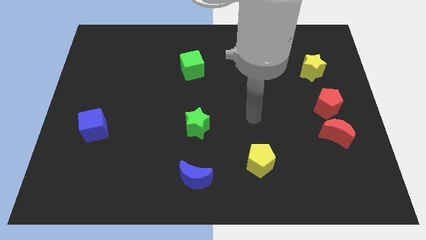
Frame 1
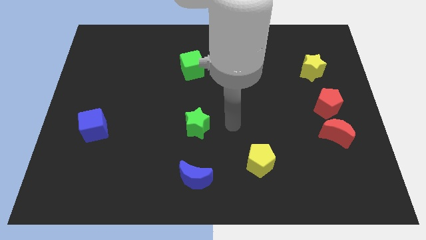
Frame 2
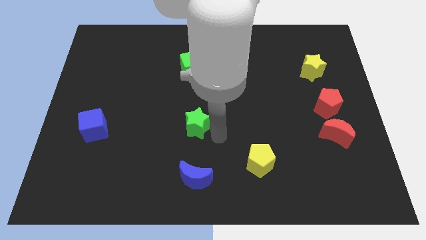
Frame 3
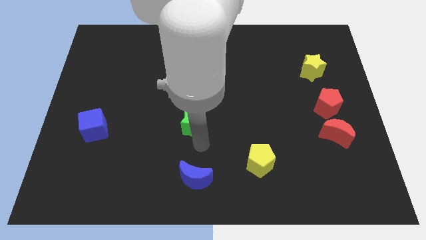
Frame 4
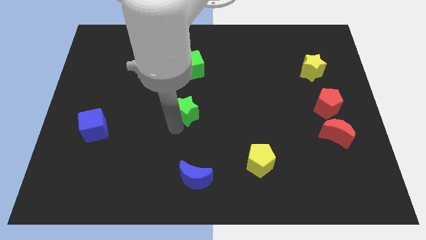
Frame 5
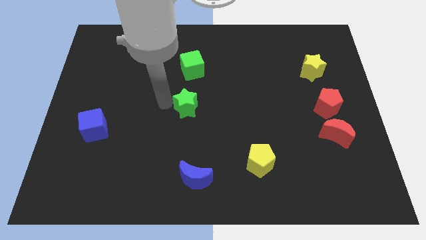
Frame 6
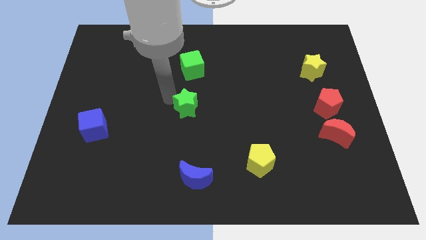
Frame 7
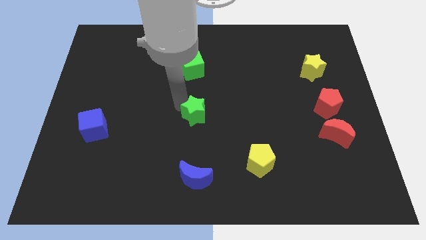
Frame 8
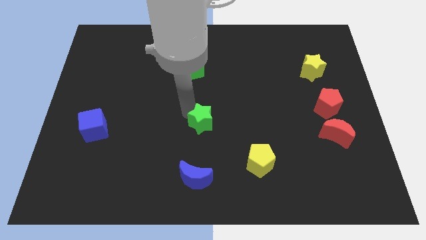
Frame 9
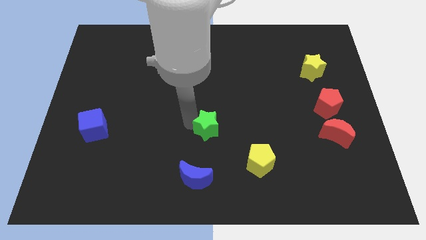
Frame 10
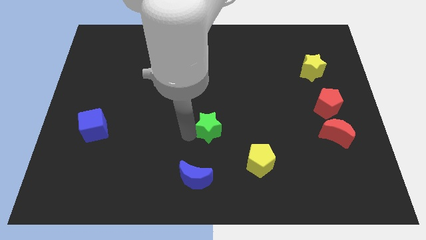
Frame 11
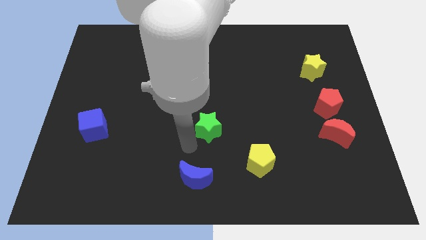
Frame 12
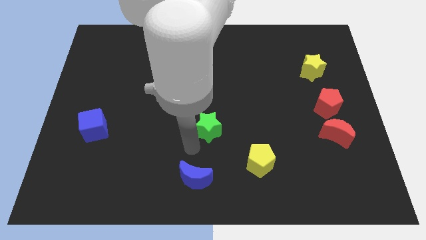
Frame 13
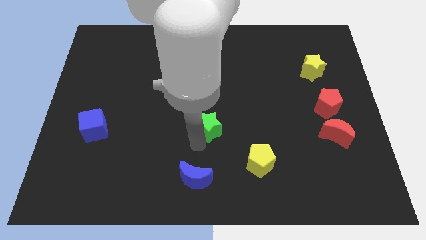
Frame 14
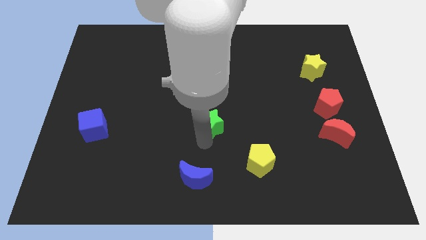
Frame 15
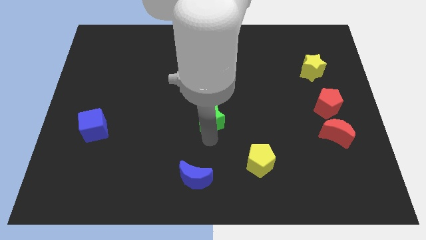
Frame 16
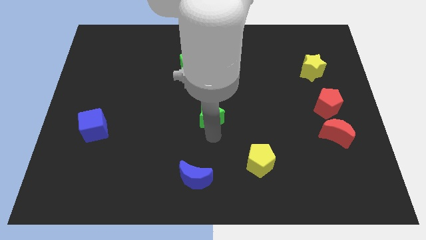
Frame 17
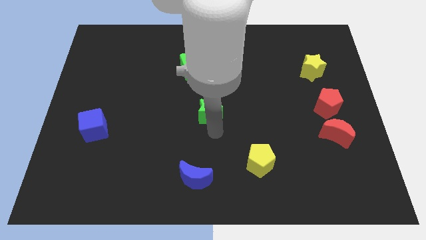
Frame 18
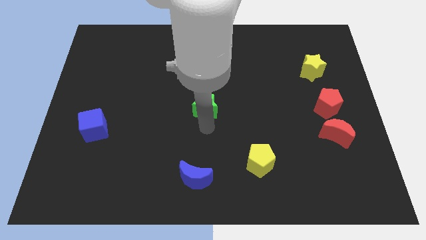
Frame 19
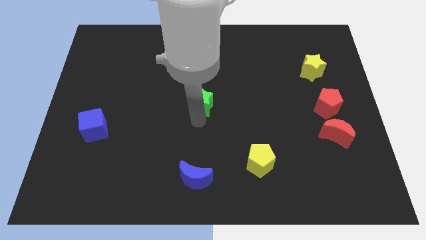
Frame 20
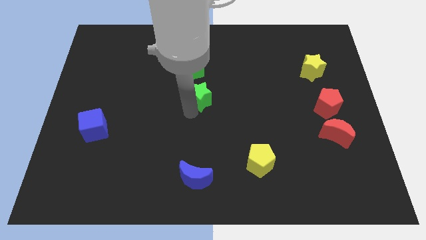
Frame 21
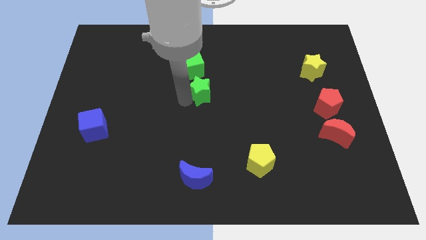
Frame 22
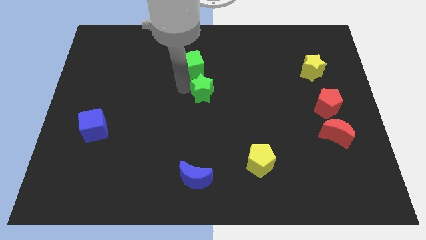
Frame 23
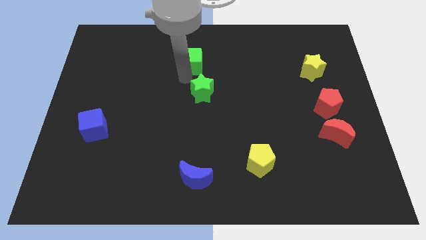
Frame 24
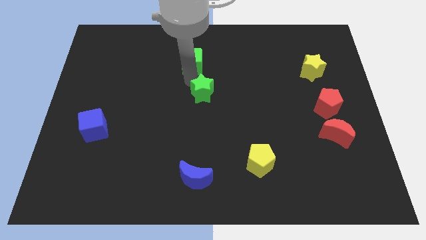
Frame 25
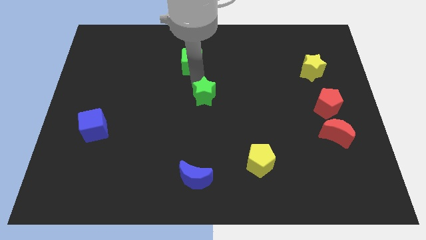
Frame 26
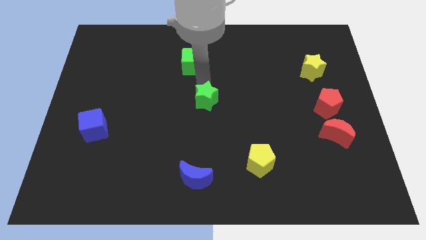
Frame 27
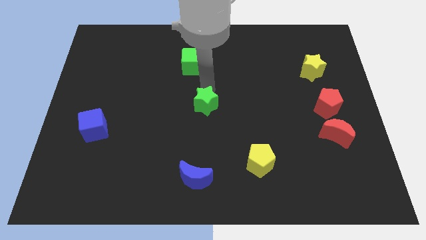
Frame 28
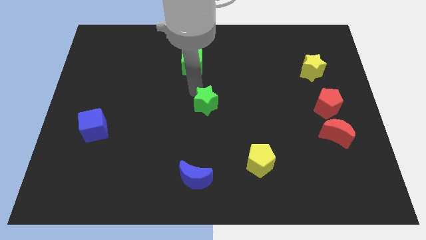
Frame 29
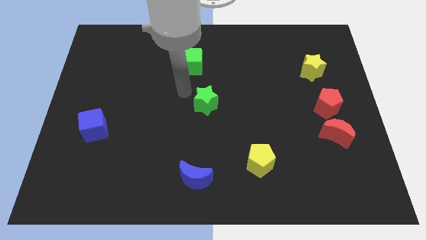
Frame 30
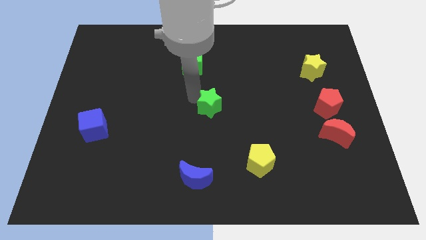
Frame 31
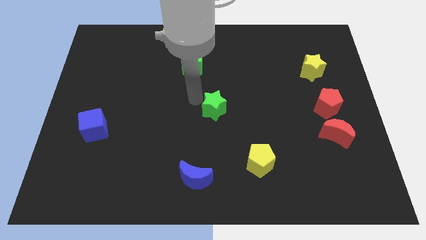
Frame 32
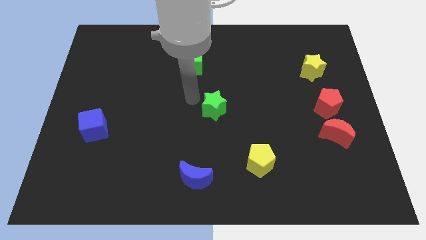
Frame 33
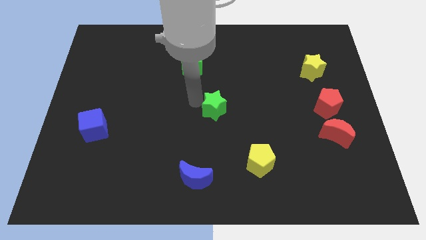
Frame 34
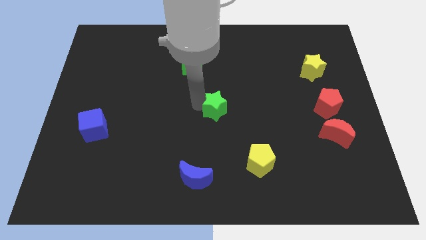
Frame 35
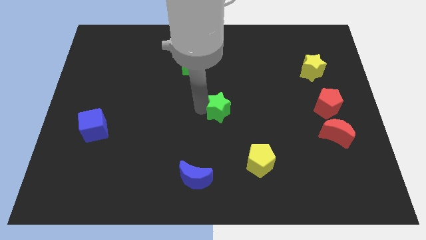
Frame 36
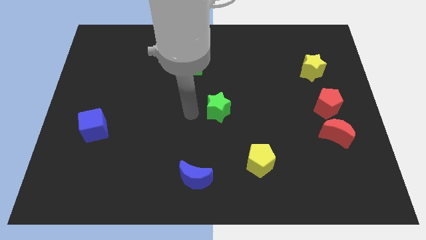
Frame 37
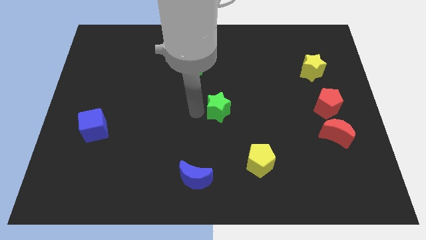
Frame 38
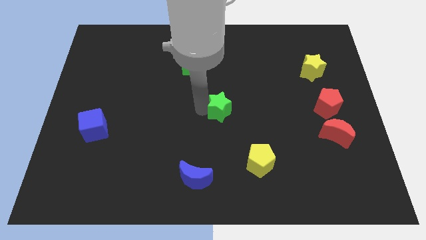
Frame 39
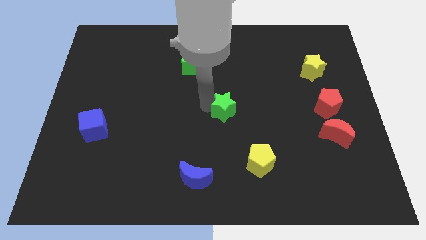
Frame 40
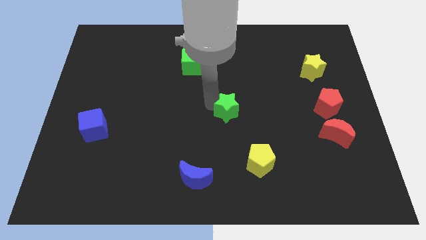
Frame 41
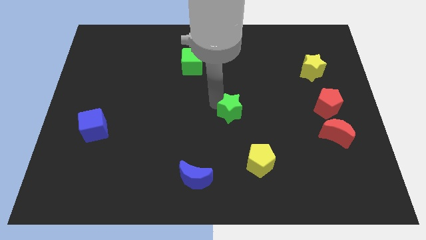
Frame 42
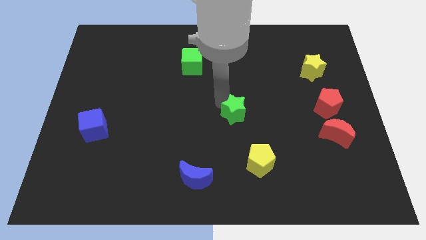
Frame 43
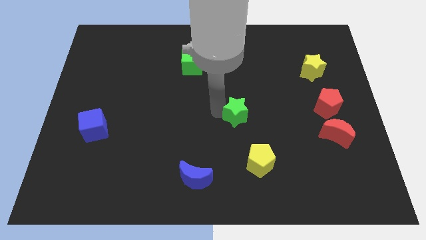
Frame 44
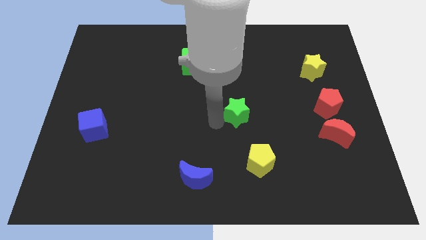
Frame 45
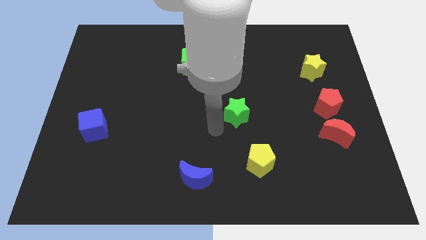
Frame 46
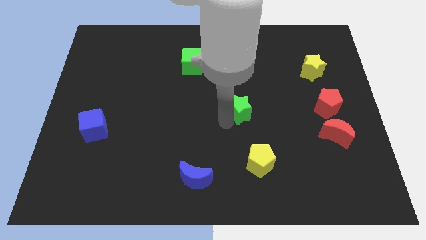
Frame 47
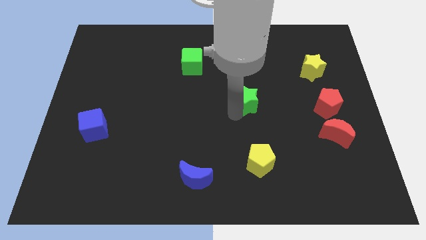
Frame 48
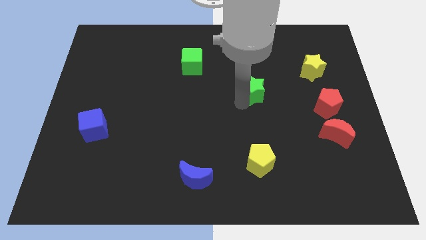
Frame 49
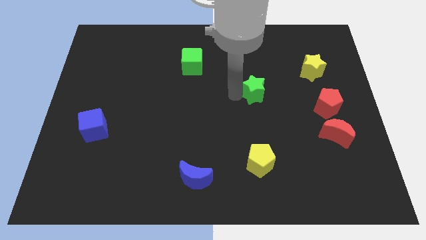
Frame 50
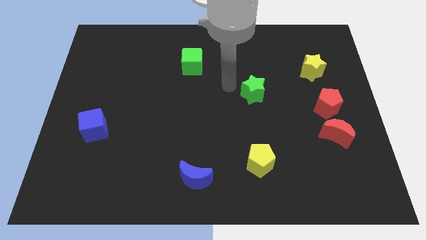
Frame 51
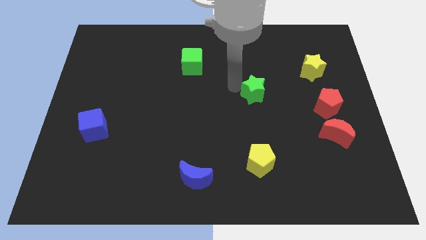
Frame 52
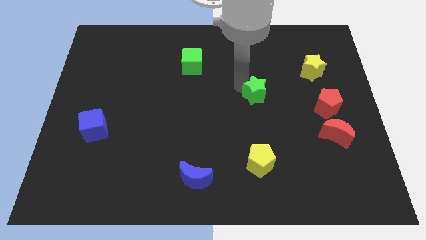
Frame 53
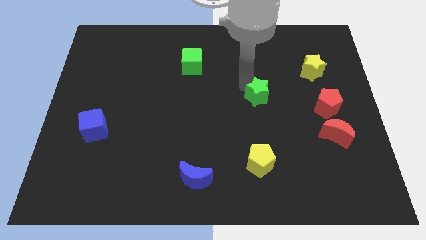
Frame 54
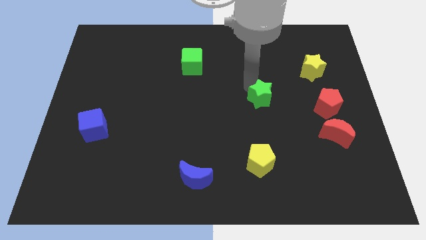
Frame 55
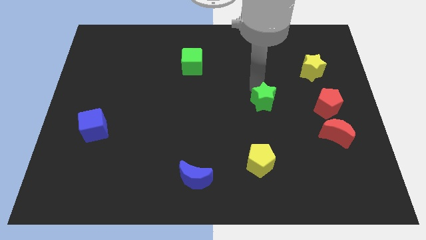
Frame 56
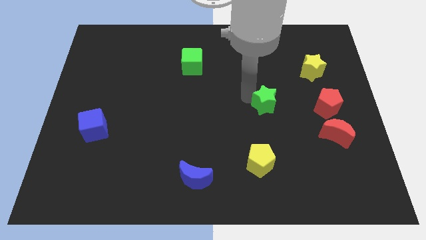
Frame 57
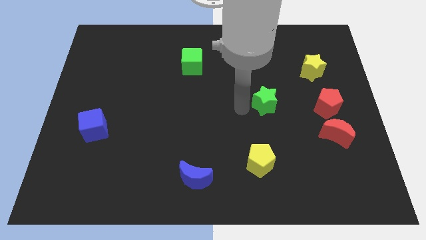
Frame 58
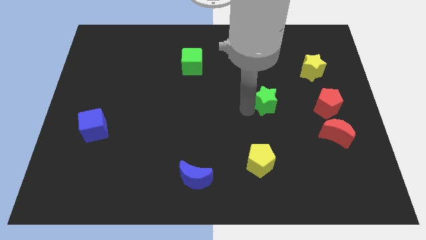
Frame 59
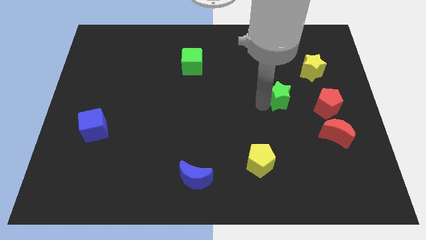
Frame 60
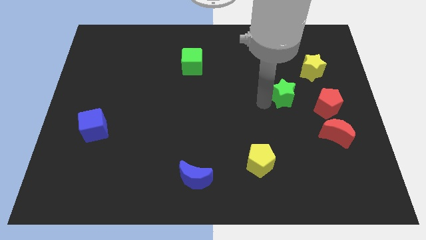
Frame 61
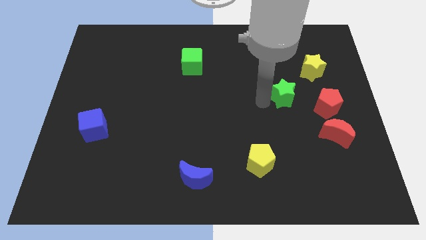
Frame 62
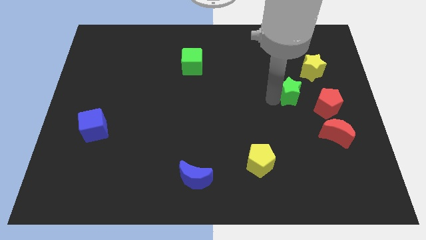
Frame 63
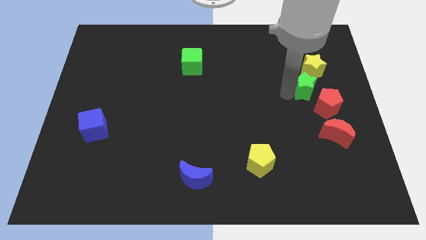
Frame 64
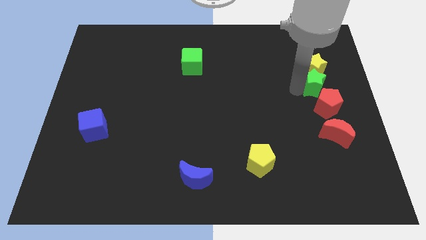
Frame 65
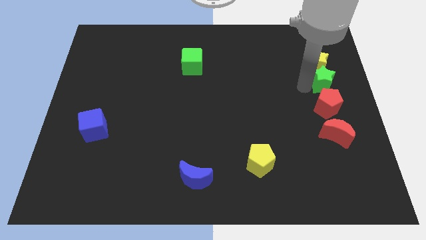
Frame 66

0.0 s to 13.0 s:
slide the green star to the right side
